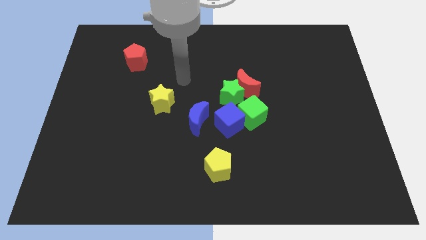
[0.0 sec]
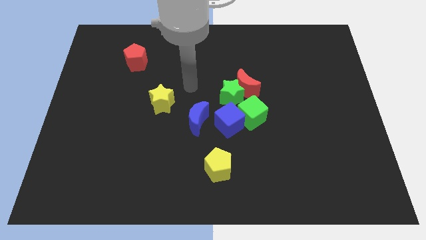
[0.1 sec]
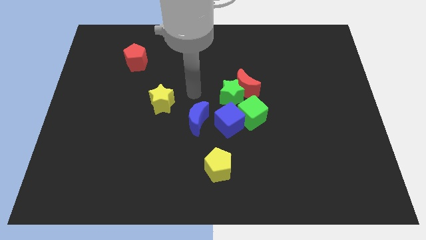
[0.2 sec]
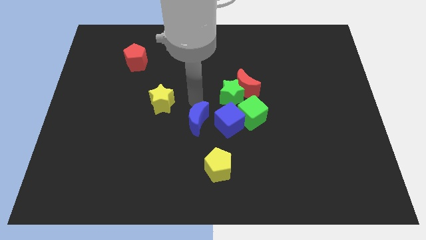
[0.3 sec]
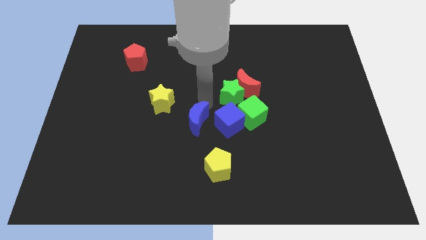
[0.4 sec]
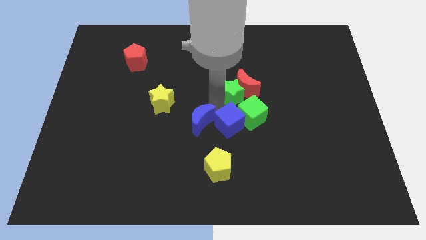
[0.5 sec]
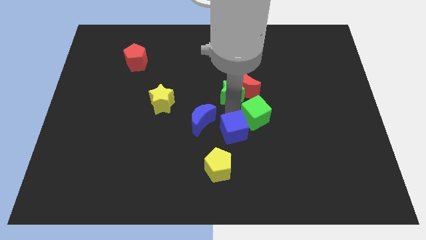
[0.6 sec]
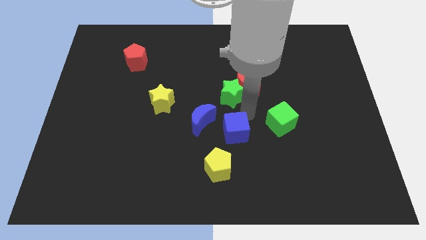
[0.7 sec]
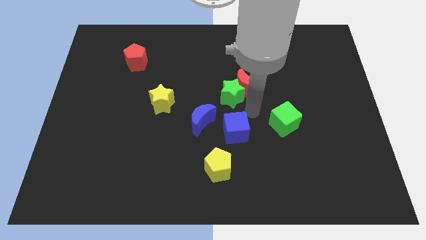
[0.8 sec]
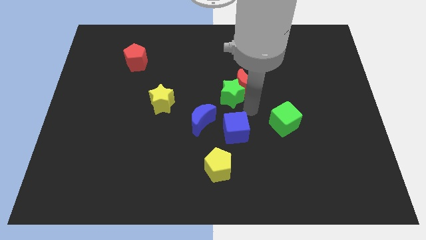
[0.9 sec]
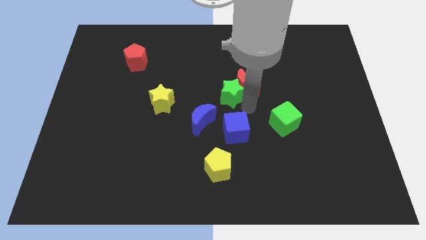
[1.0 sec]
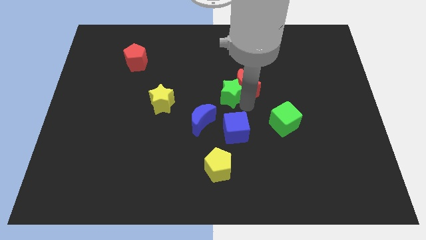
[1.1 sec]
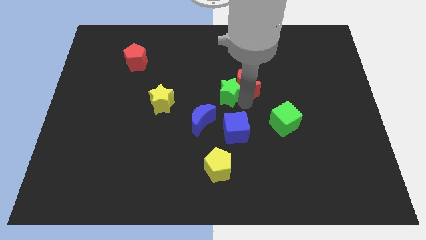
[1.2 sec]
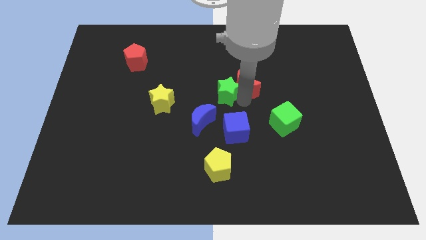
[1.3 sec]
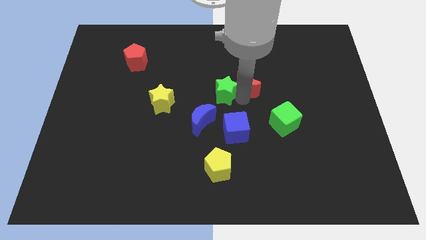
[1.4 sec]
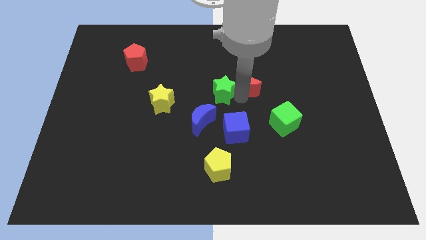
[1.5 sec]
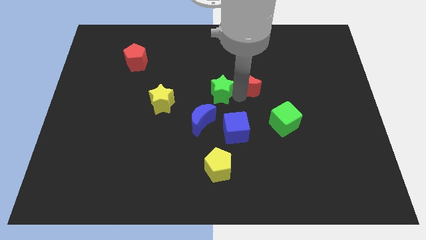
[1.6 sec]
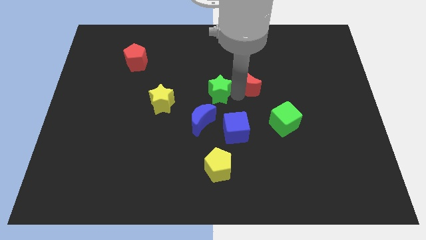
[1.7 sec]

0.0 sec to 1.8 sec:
move the green star away from the red moon, green cube, and blue cube

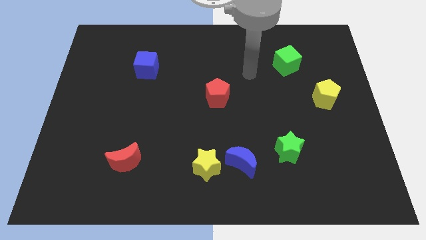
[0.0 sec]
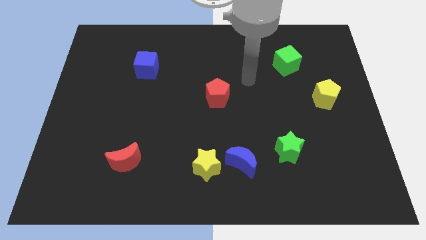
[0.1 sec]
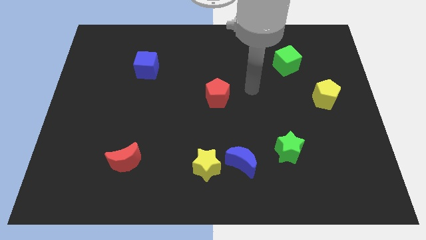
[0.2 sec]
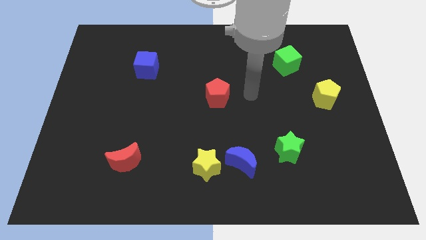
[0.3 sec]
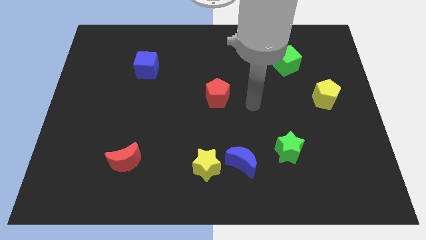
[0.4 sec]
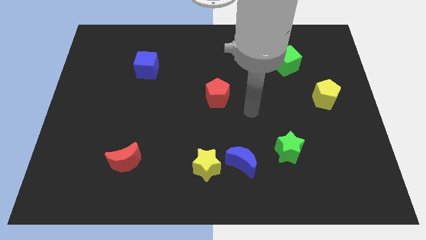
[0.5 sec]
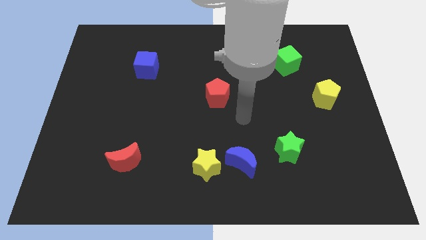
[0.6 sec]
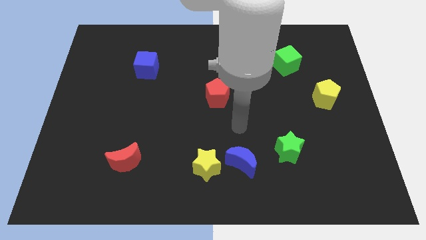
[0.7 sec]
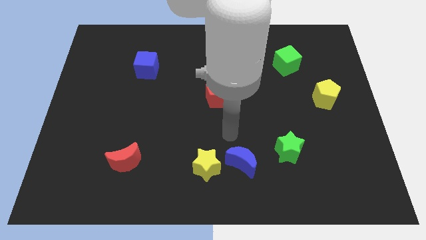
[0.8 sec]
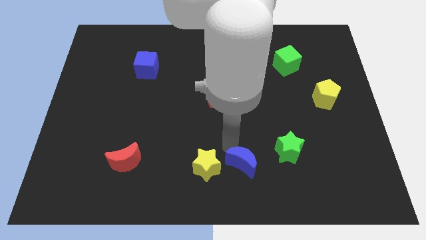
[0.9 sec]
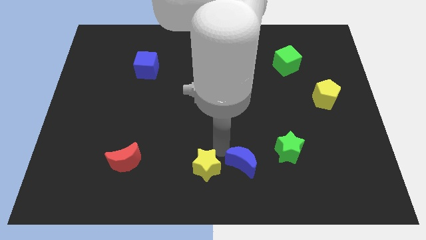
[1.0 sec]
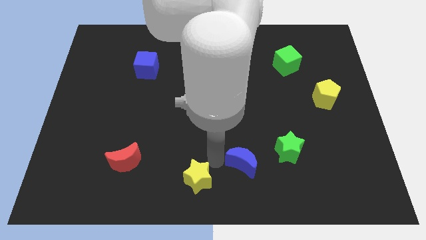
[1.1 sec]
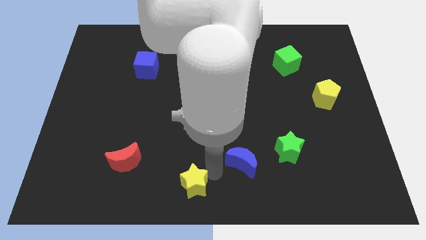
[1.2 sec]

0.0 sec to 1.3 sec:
move the blue moon away from the yellow star

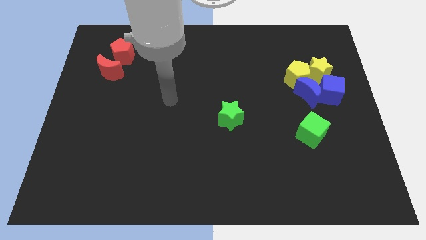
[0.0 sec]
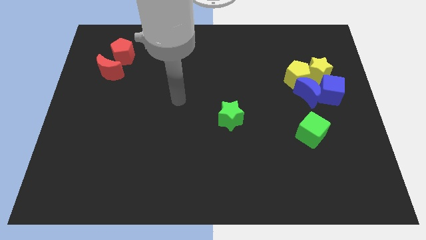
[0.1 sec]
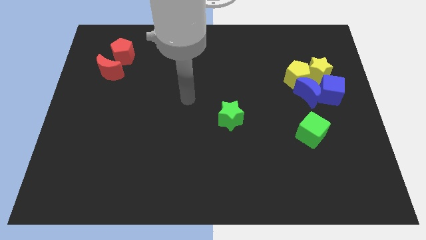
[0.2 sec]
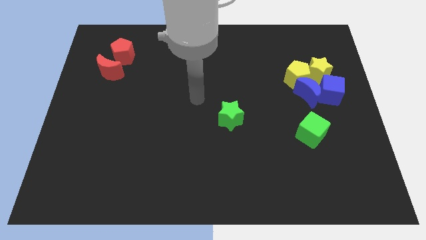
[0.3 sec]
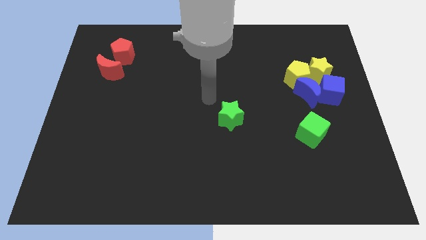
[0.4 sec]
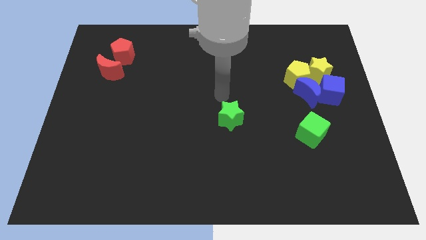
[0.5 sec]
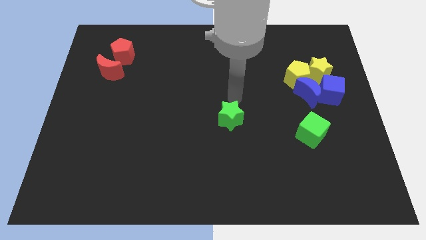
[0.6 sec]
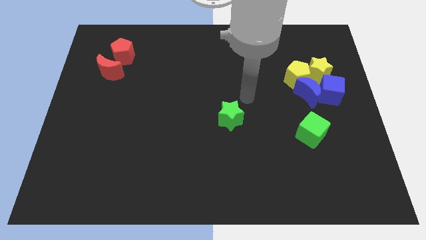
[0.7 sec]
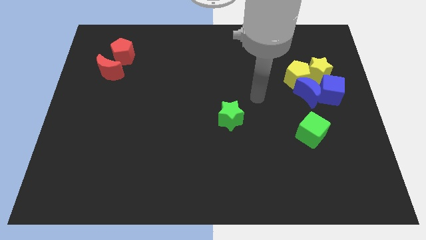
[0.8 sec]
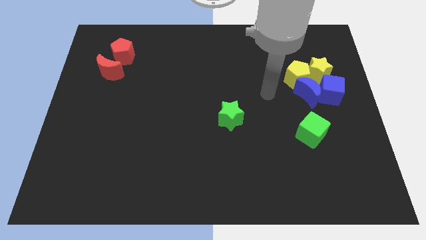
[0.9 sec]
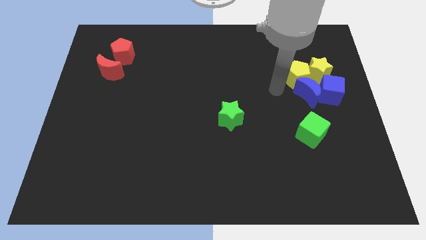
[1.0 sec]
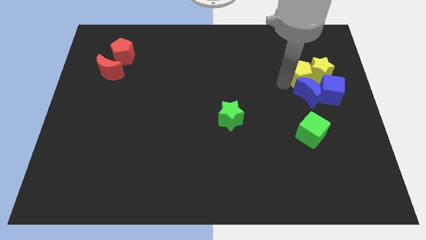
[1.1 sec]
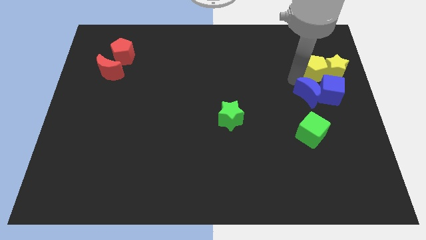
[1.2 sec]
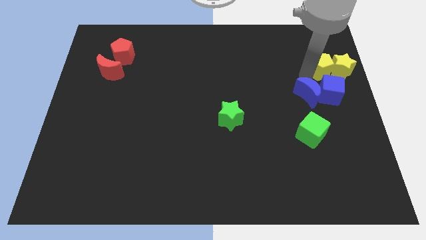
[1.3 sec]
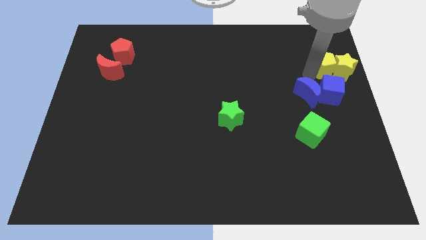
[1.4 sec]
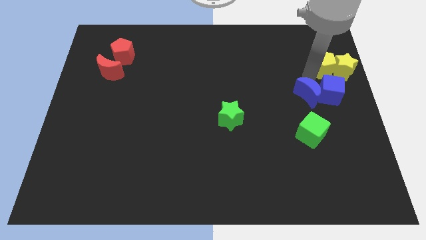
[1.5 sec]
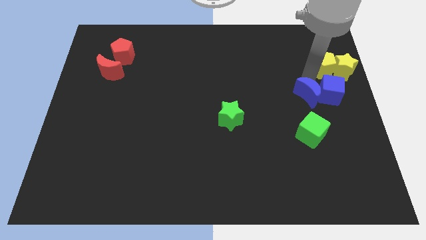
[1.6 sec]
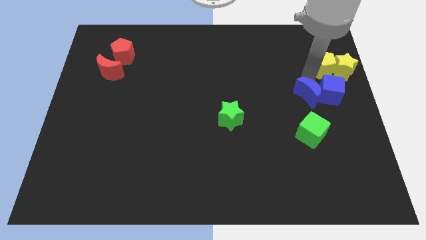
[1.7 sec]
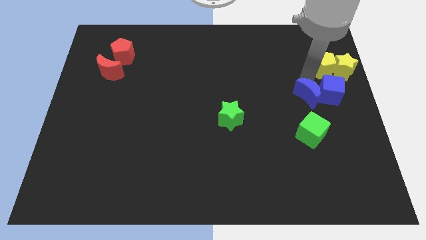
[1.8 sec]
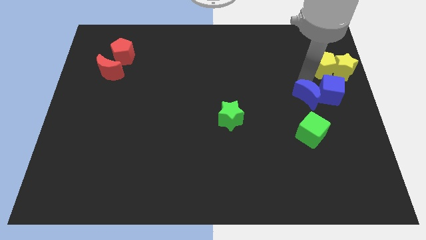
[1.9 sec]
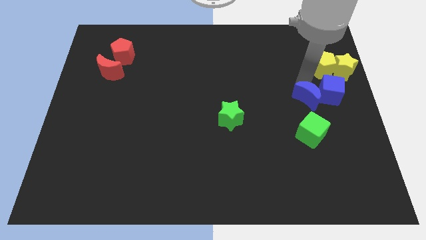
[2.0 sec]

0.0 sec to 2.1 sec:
move the blue moon away from the blue cube, yellow pentagon, and yellow star

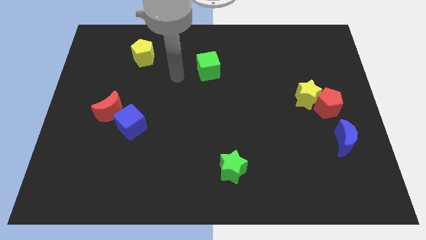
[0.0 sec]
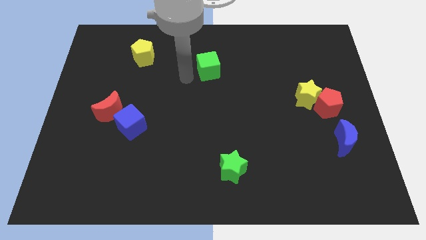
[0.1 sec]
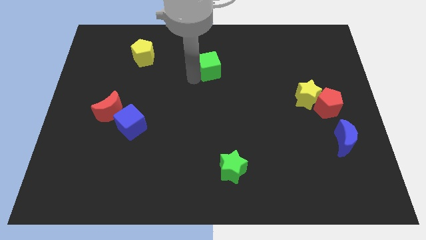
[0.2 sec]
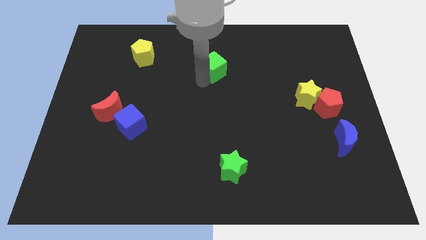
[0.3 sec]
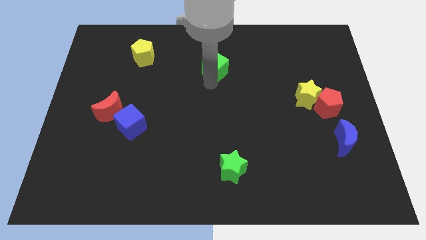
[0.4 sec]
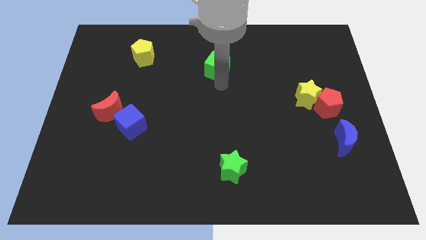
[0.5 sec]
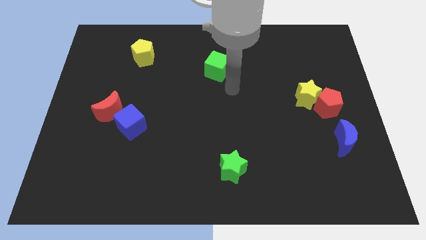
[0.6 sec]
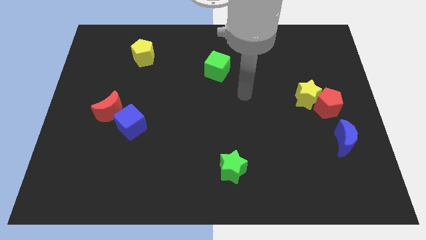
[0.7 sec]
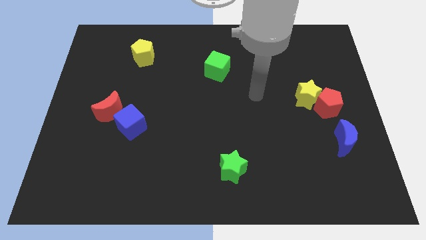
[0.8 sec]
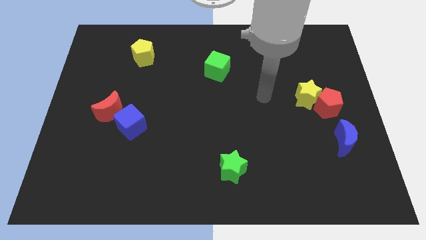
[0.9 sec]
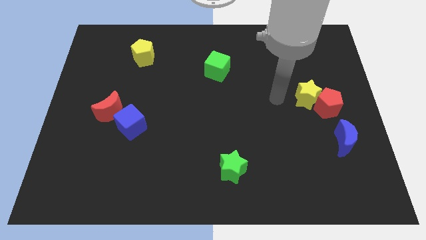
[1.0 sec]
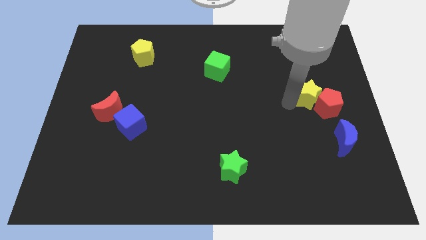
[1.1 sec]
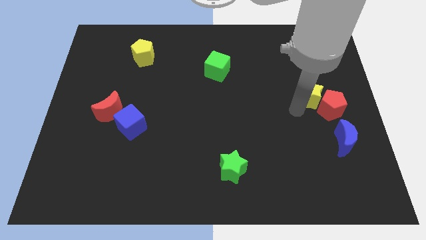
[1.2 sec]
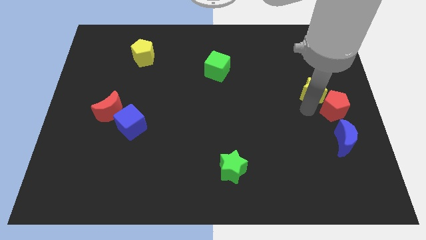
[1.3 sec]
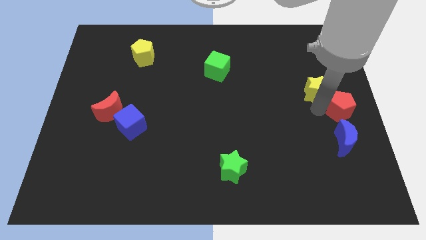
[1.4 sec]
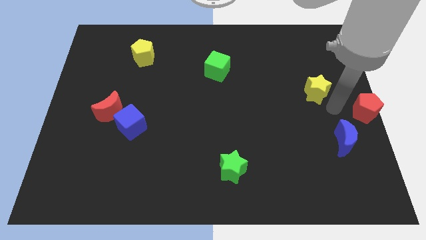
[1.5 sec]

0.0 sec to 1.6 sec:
pull the yellow star apart from the red pentagon

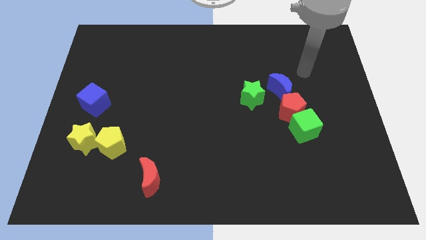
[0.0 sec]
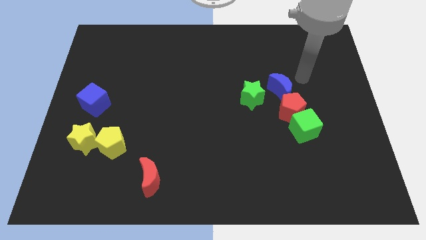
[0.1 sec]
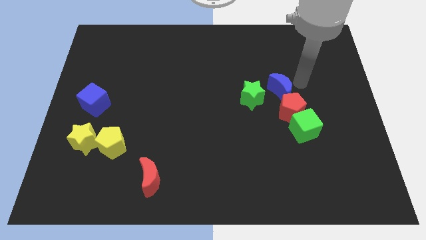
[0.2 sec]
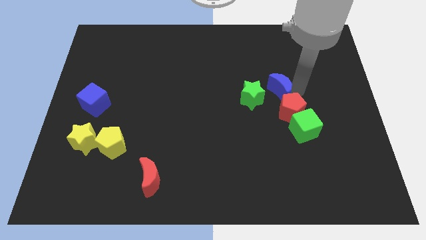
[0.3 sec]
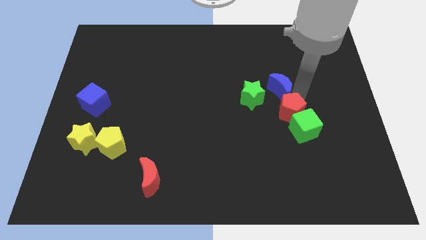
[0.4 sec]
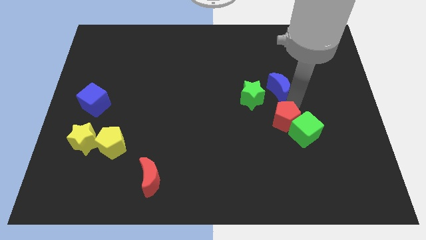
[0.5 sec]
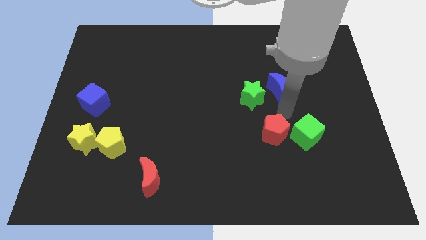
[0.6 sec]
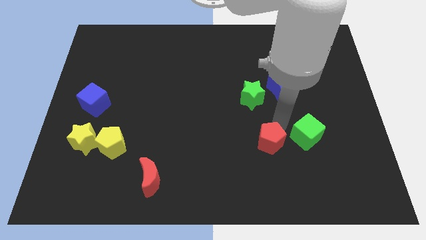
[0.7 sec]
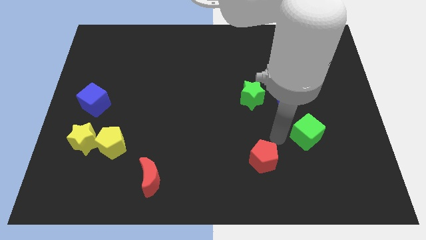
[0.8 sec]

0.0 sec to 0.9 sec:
separate the green cube from the red pentagon

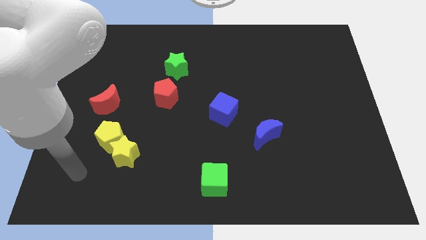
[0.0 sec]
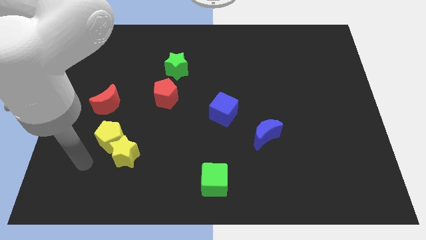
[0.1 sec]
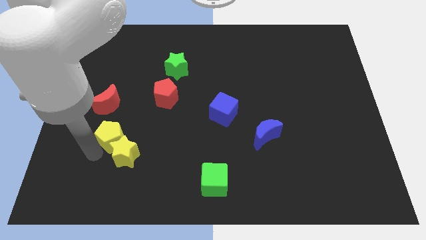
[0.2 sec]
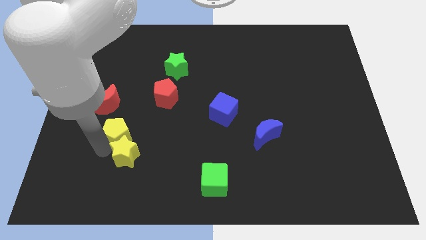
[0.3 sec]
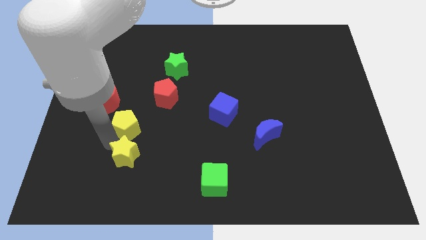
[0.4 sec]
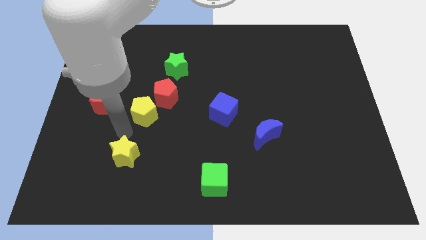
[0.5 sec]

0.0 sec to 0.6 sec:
separate the yellow star from the yellow pentagon

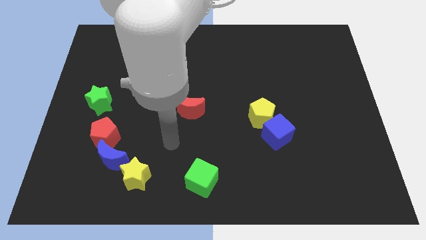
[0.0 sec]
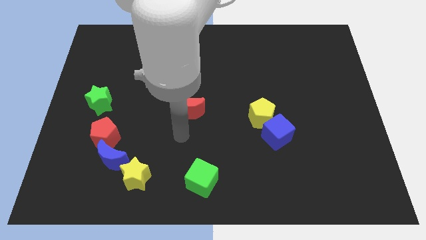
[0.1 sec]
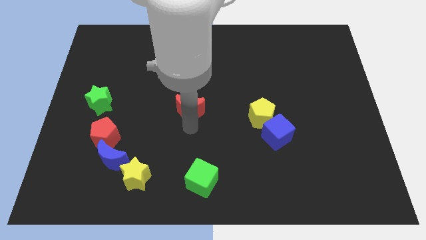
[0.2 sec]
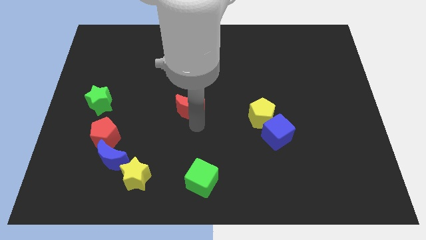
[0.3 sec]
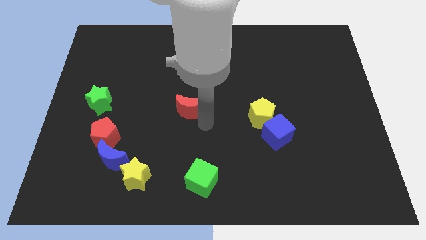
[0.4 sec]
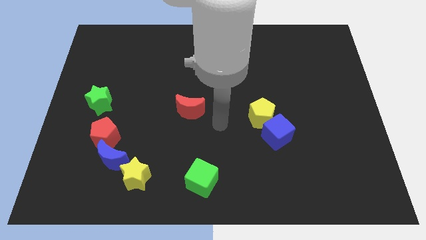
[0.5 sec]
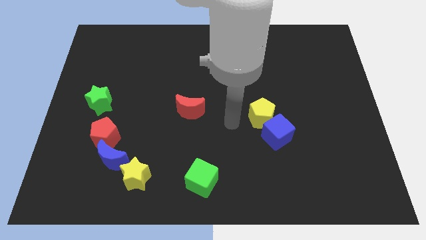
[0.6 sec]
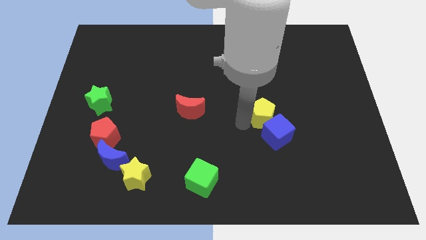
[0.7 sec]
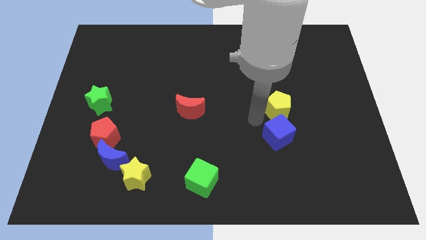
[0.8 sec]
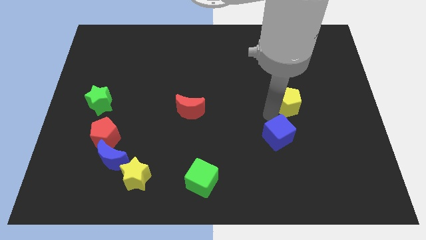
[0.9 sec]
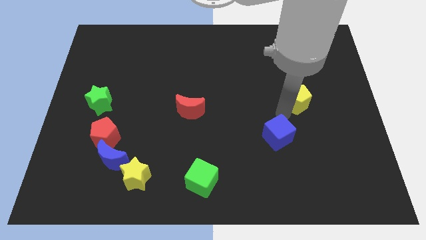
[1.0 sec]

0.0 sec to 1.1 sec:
pull the blue cube apart from the yellow pentagon
